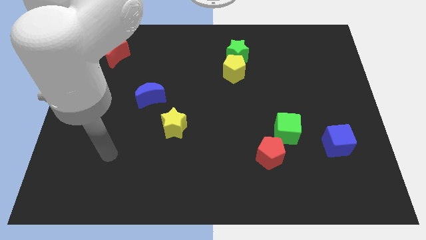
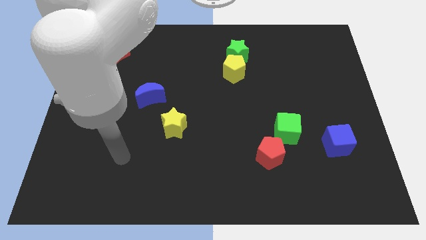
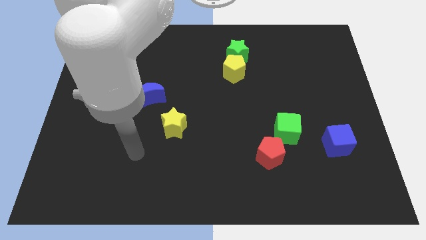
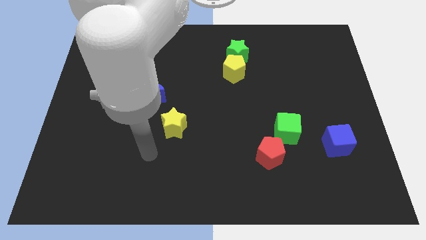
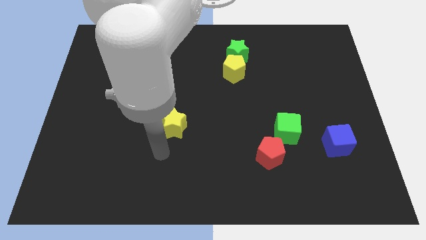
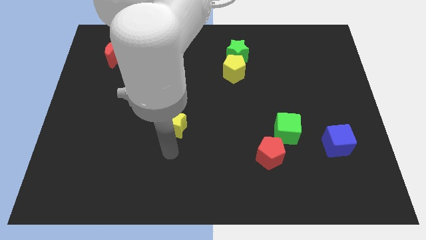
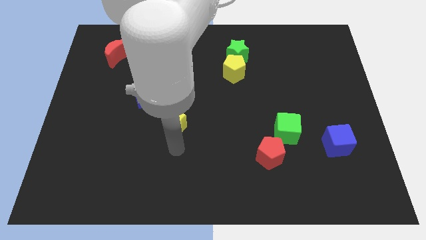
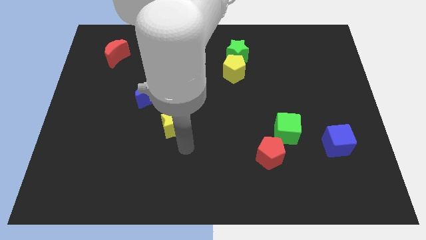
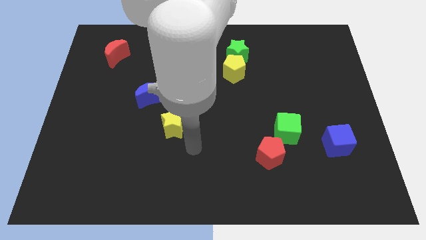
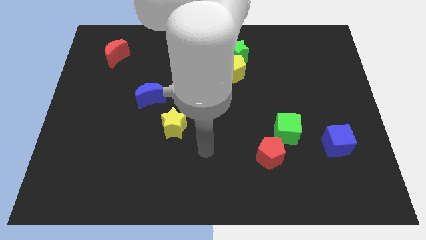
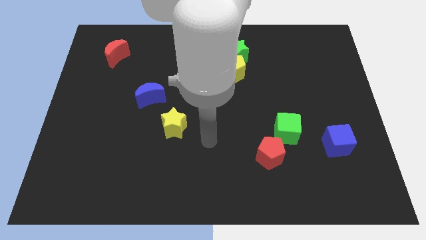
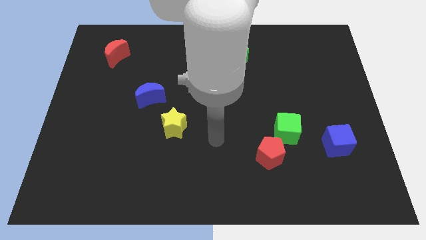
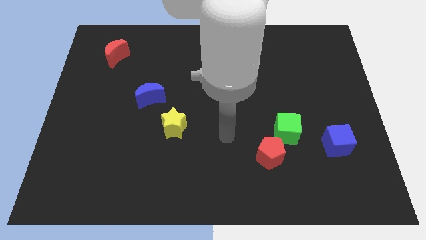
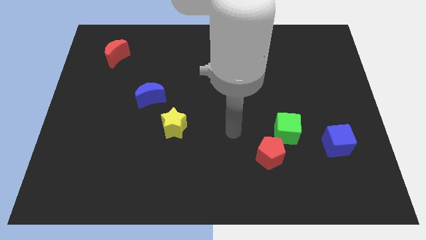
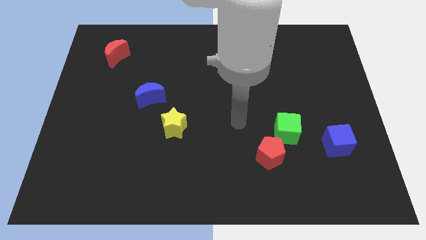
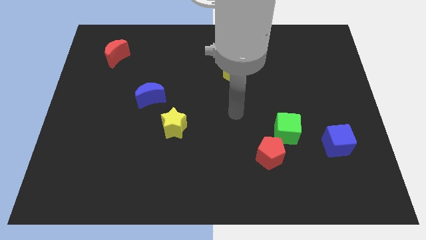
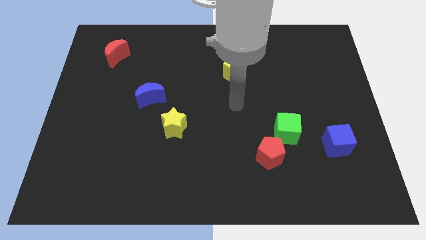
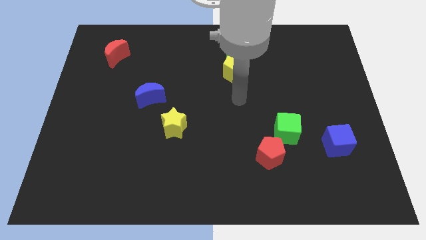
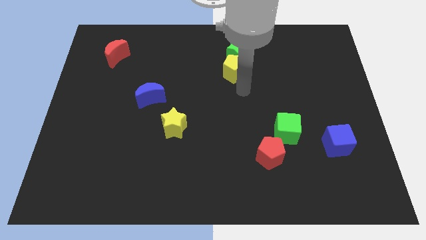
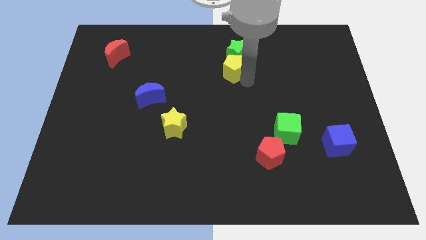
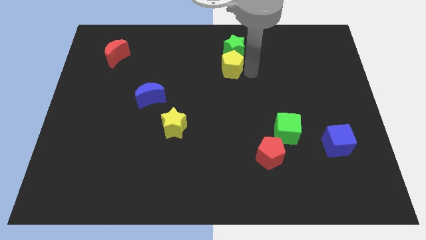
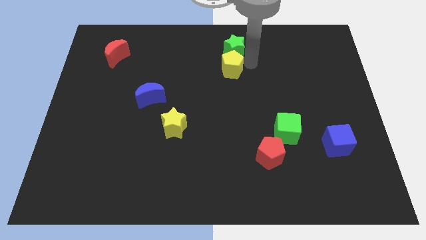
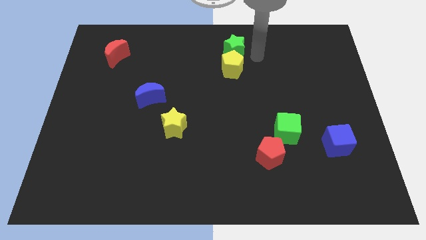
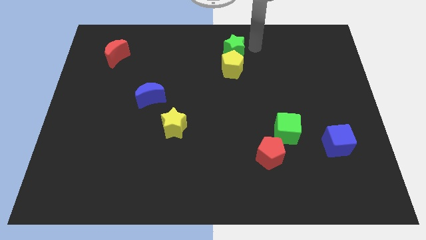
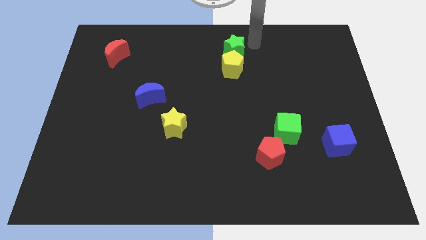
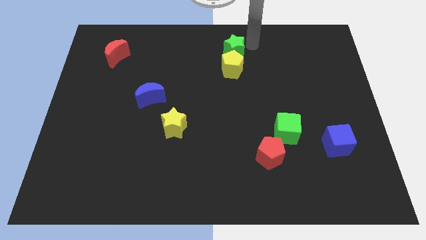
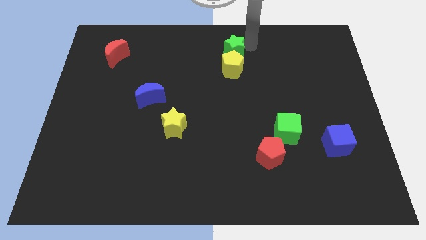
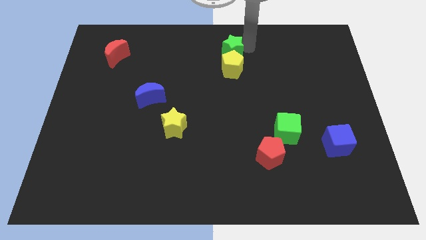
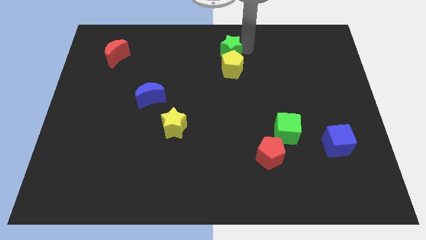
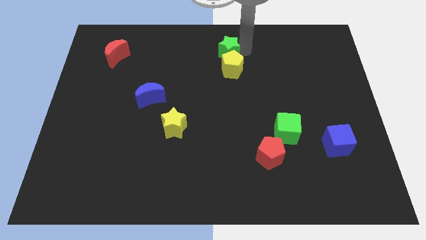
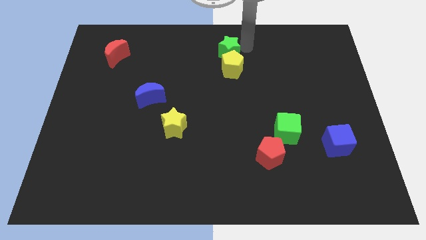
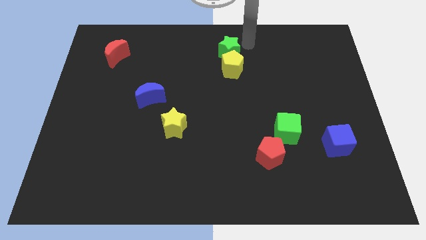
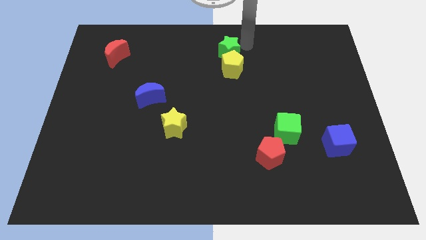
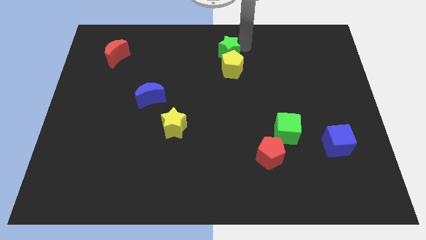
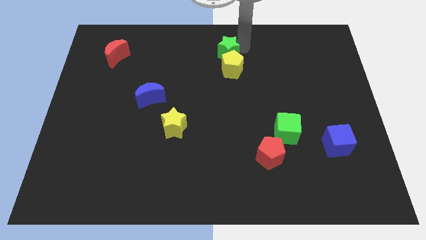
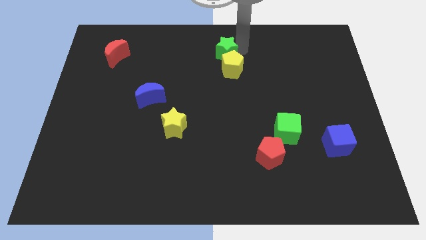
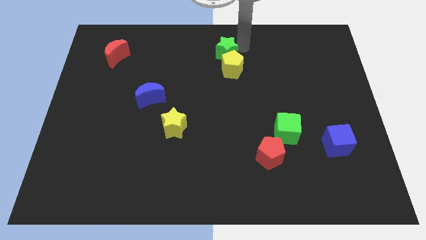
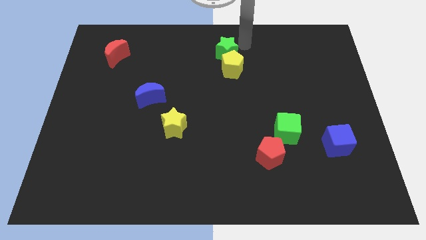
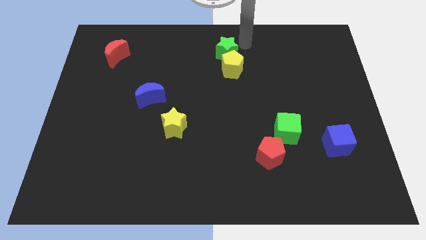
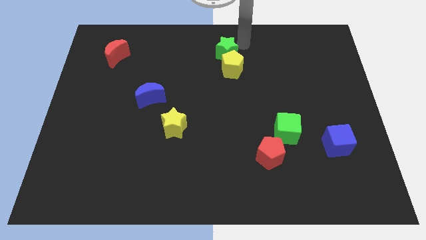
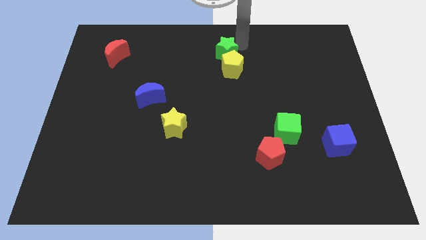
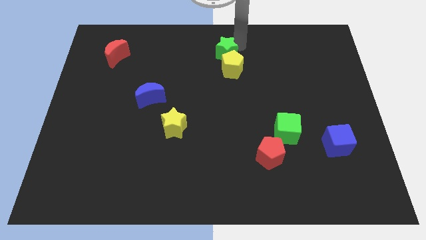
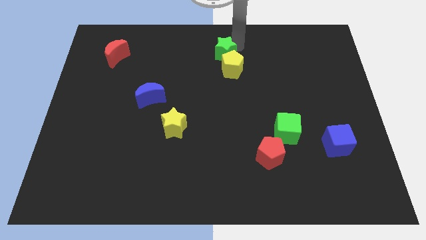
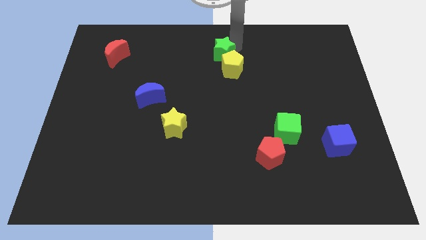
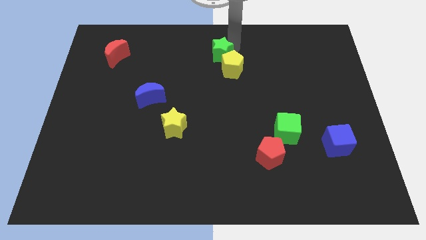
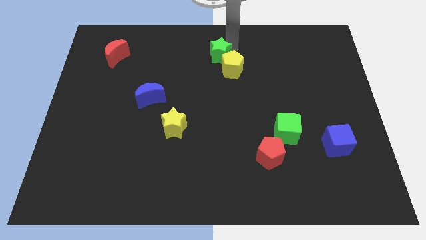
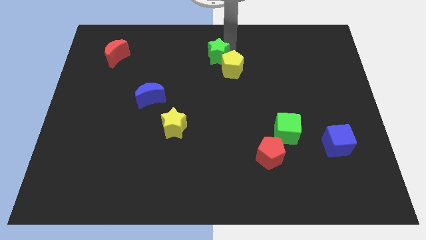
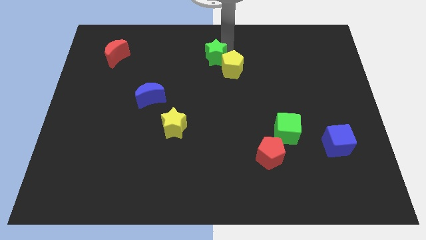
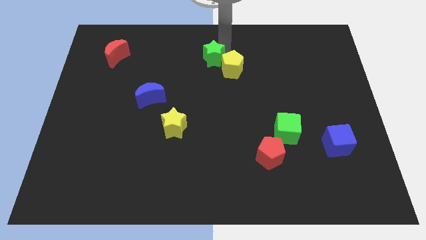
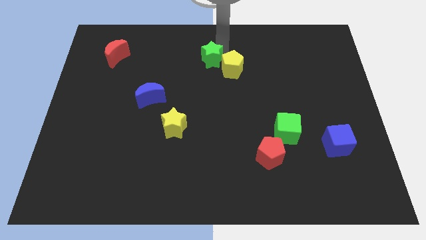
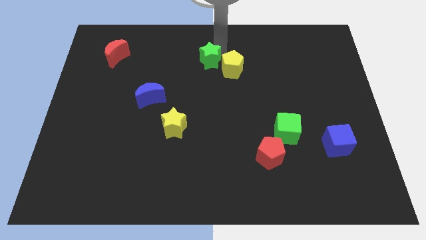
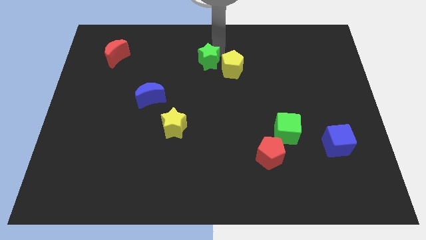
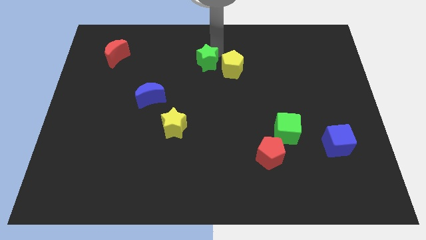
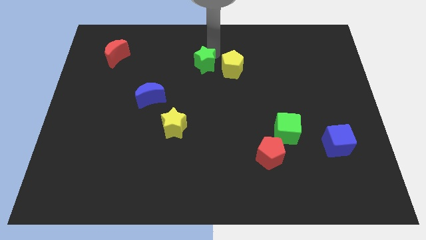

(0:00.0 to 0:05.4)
slightly slide the green star downwards and then to the left

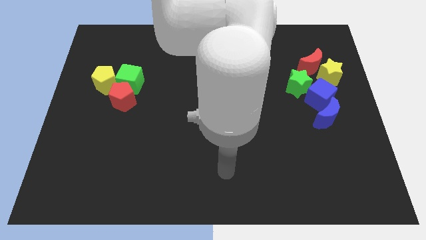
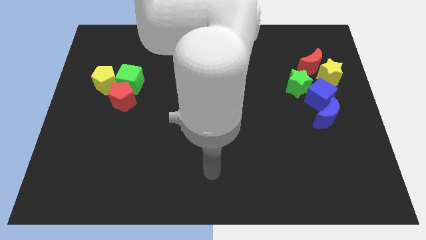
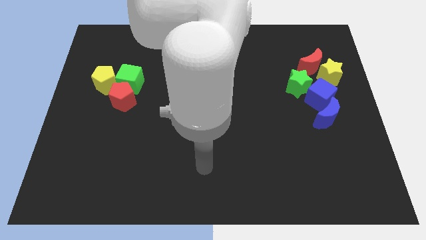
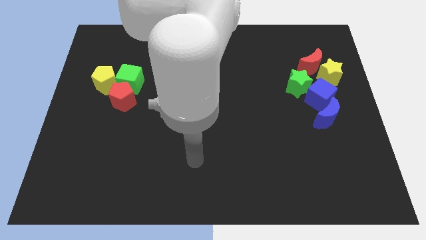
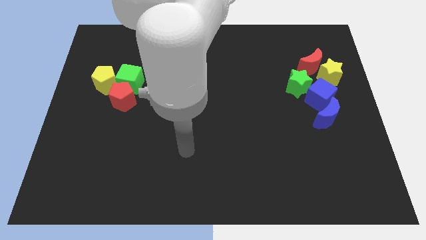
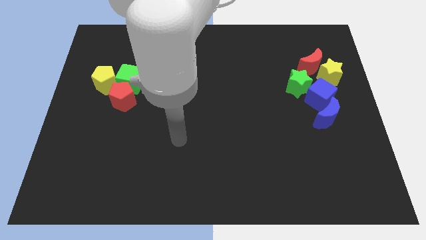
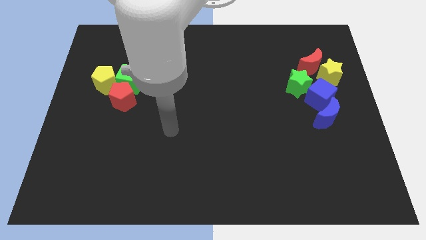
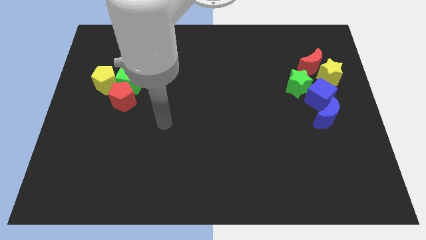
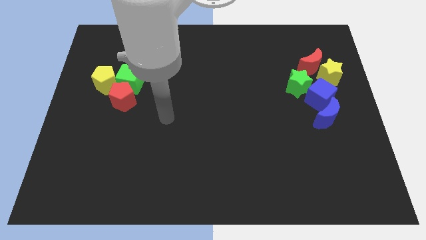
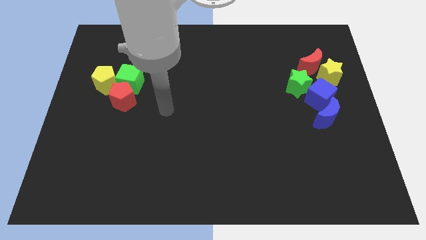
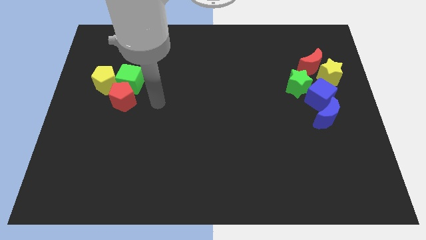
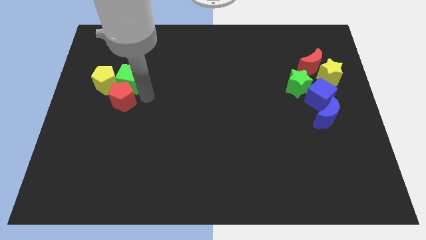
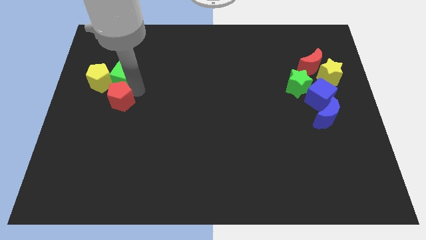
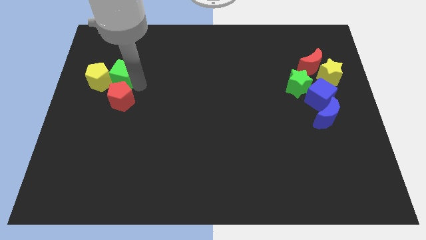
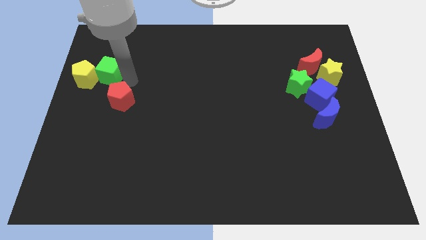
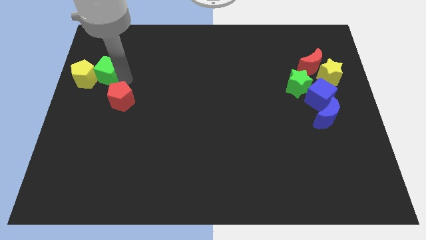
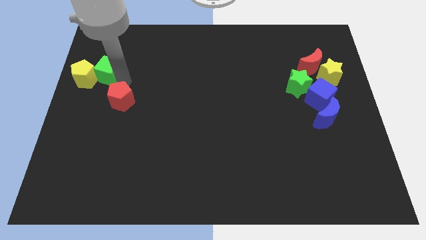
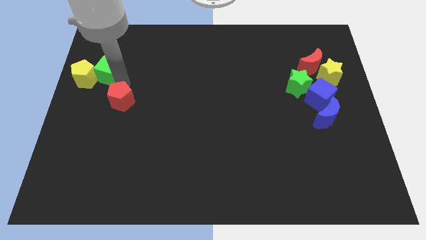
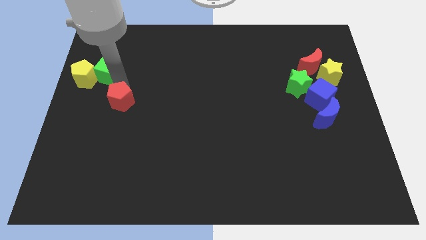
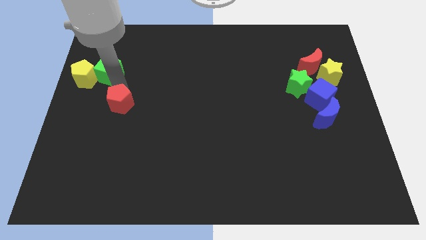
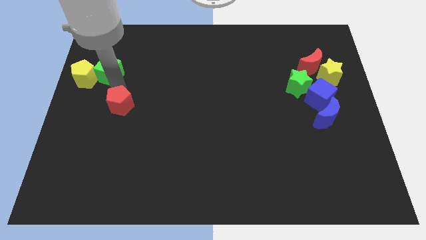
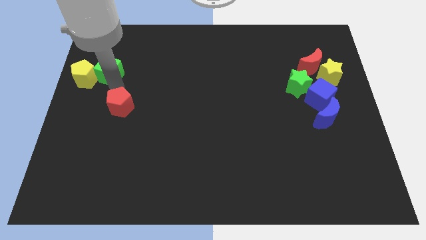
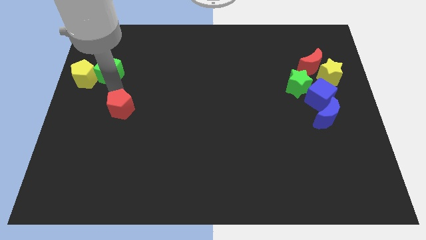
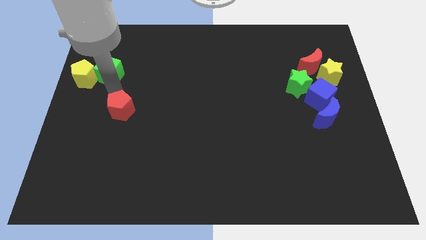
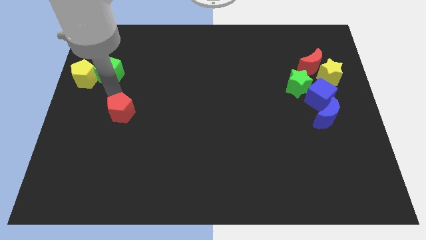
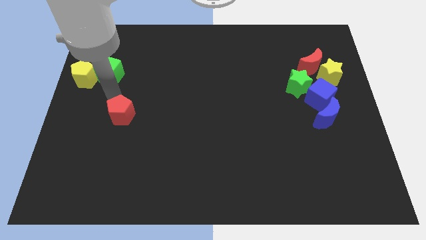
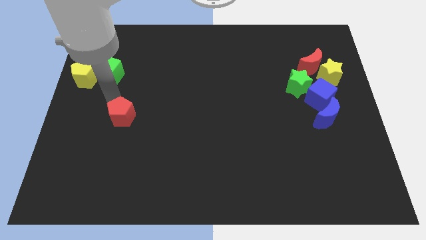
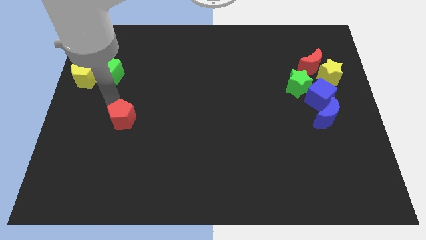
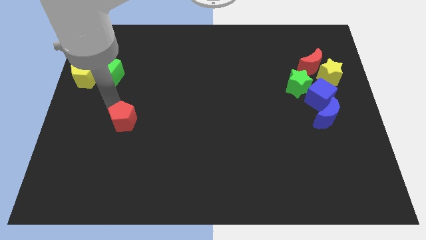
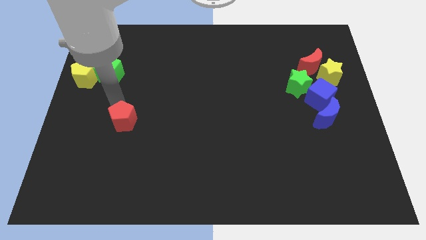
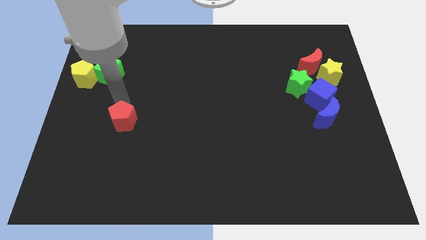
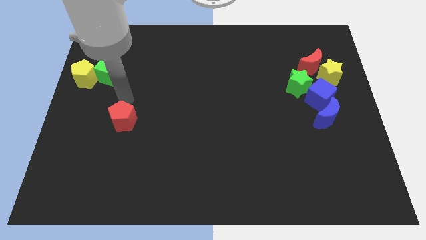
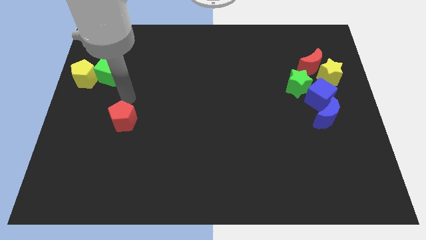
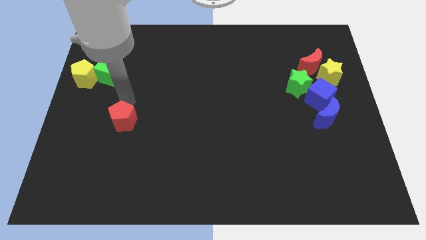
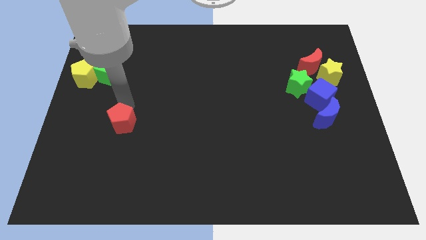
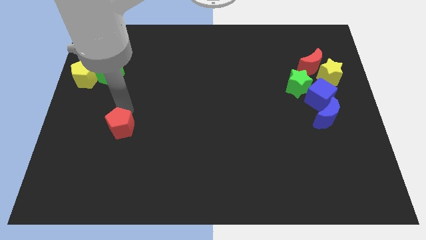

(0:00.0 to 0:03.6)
move the red pentagon downwards somewhat
